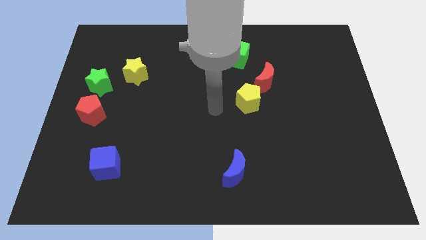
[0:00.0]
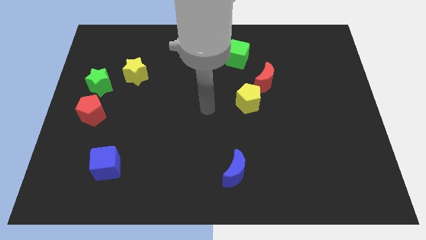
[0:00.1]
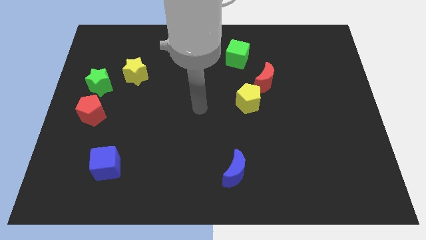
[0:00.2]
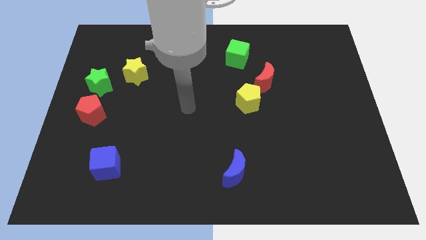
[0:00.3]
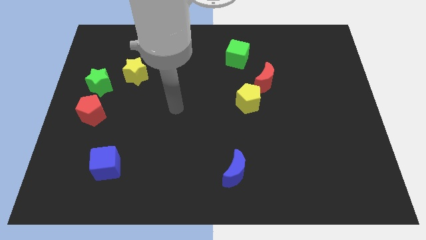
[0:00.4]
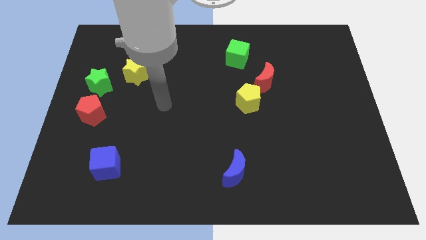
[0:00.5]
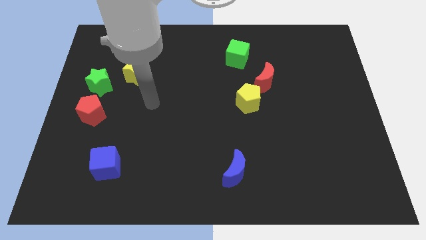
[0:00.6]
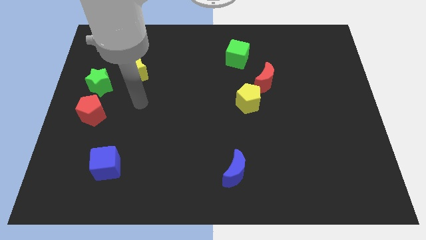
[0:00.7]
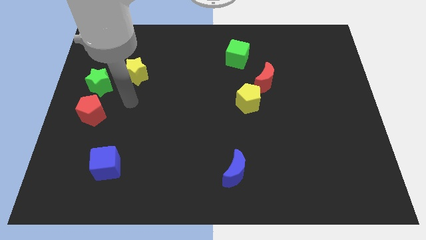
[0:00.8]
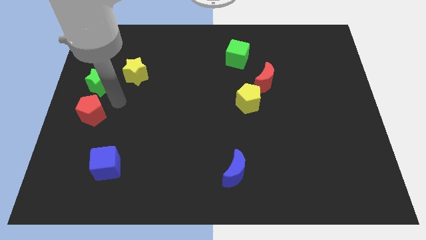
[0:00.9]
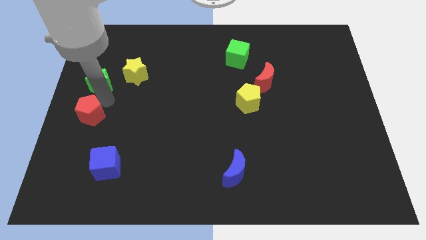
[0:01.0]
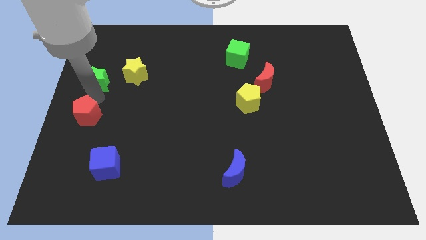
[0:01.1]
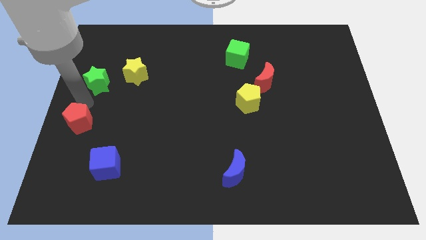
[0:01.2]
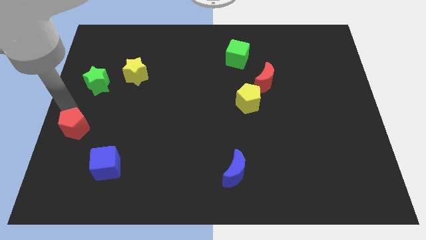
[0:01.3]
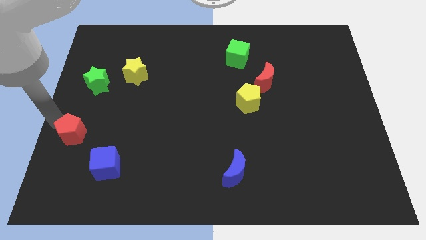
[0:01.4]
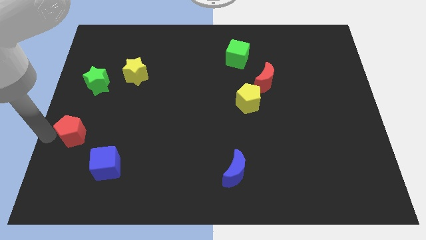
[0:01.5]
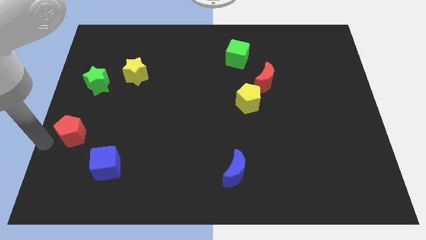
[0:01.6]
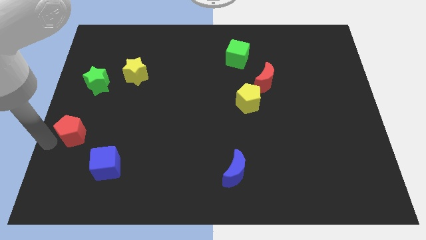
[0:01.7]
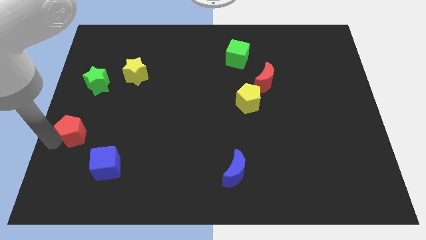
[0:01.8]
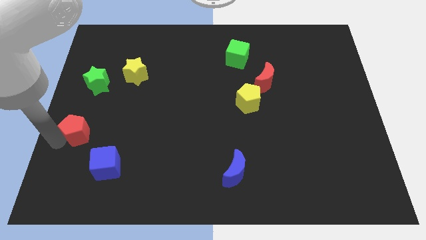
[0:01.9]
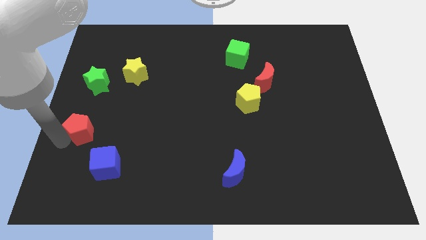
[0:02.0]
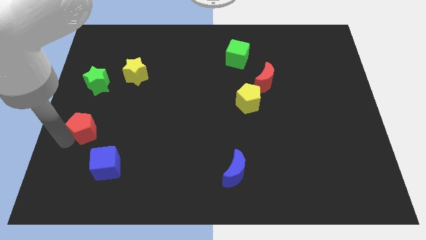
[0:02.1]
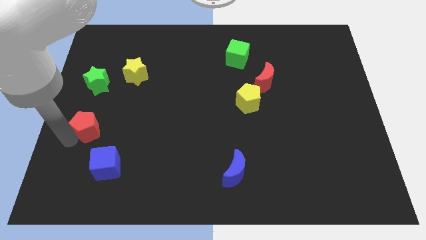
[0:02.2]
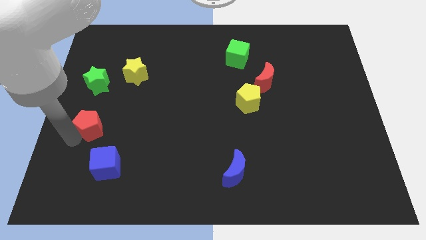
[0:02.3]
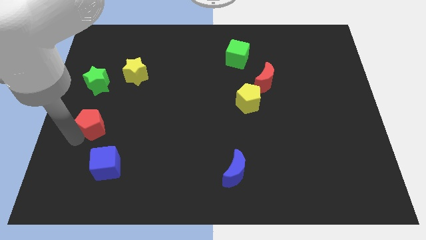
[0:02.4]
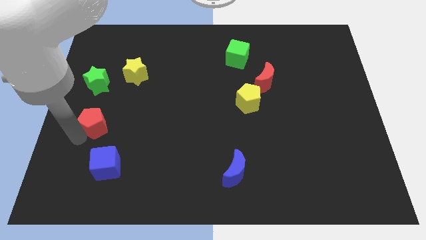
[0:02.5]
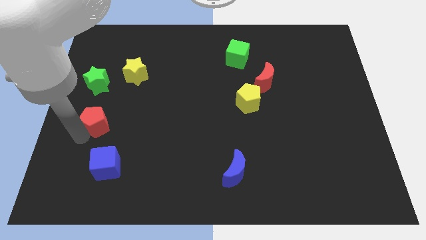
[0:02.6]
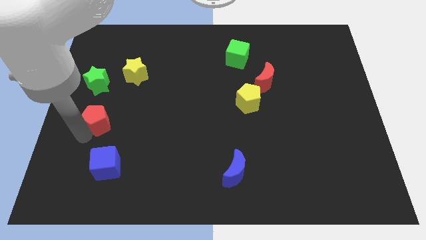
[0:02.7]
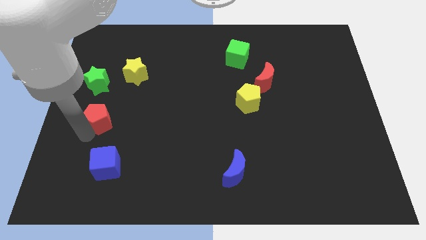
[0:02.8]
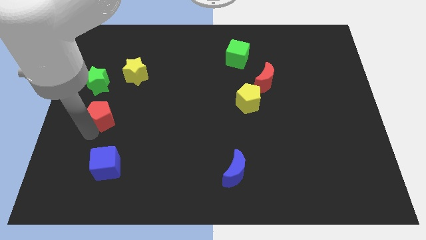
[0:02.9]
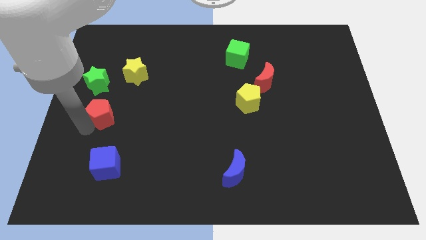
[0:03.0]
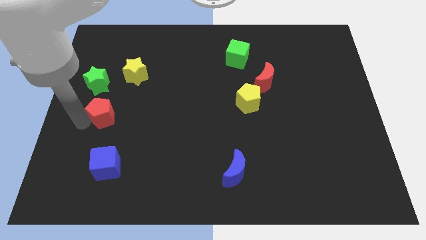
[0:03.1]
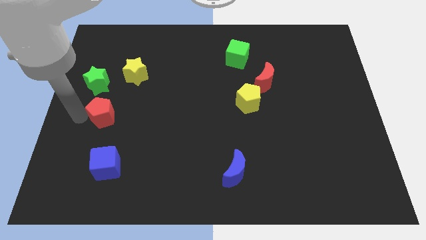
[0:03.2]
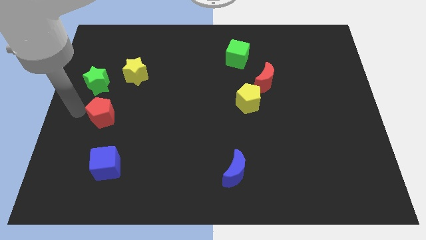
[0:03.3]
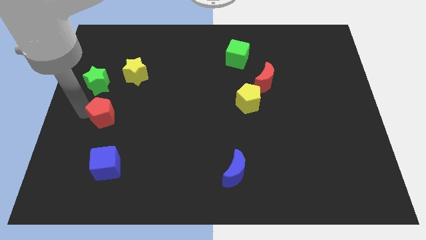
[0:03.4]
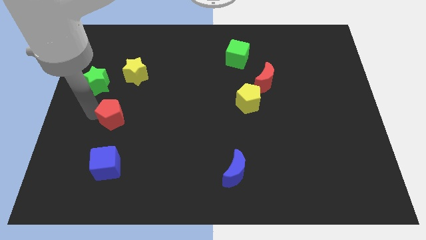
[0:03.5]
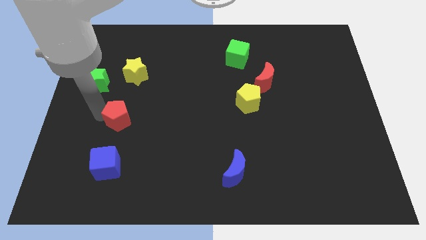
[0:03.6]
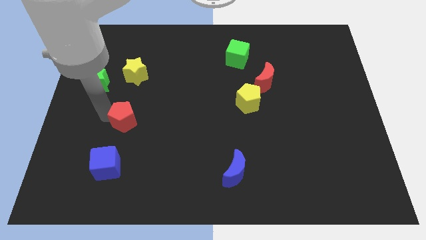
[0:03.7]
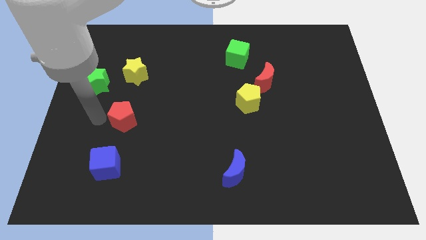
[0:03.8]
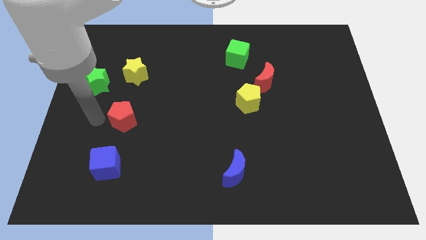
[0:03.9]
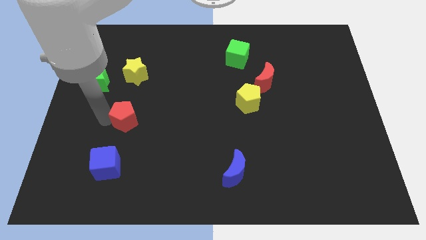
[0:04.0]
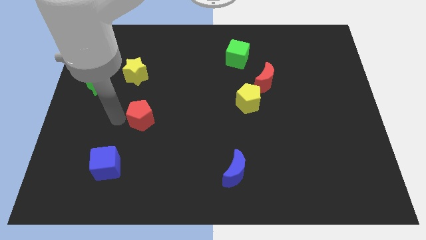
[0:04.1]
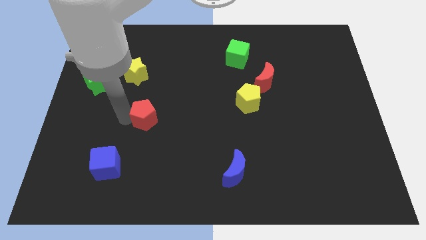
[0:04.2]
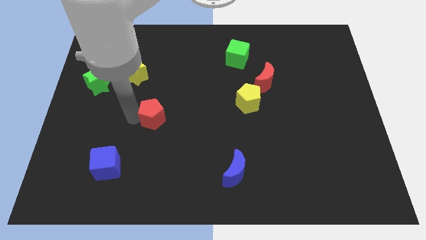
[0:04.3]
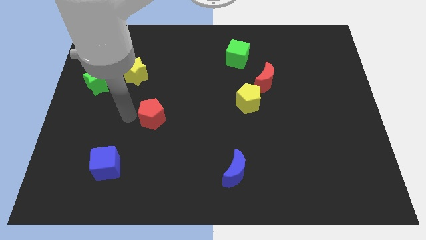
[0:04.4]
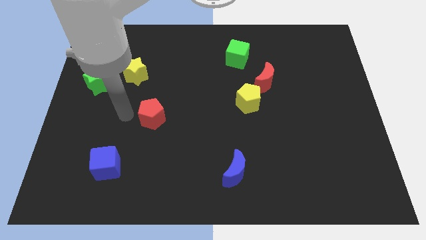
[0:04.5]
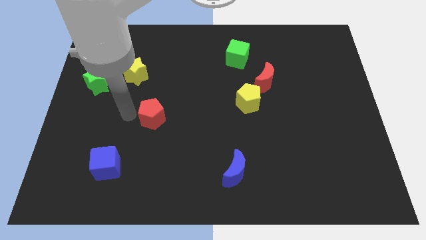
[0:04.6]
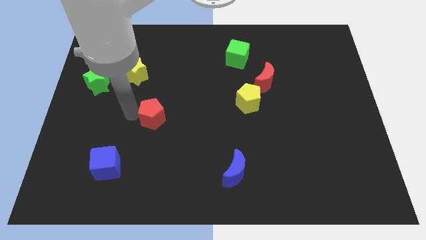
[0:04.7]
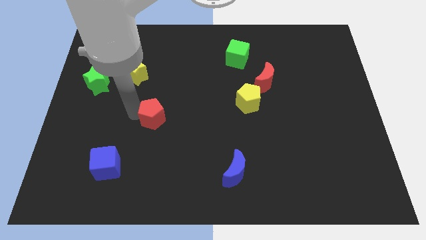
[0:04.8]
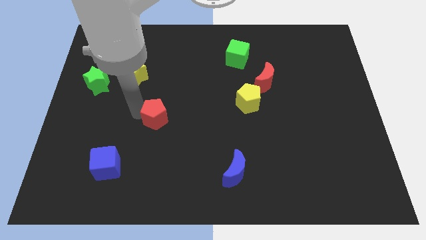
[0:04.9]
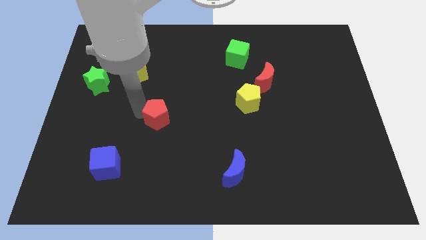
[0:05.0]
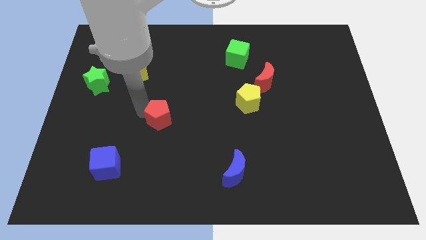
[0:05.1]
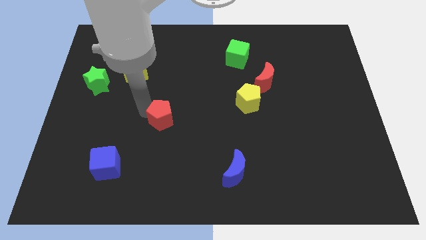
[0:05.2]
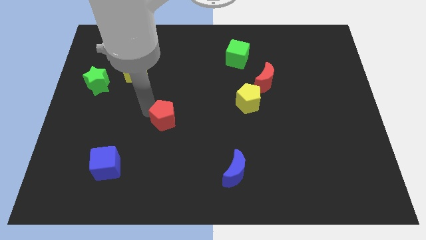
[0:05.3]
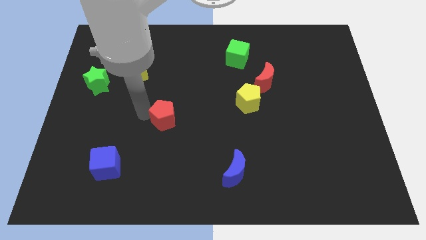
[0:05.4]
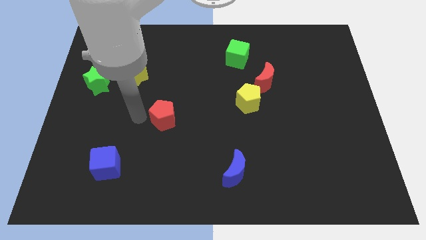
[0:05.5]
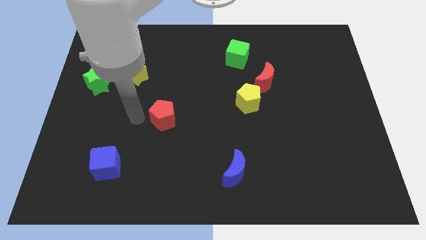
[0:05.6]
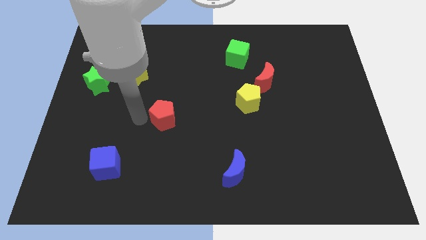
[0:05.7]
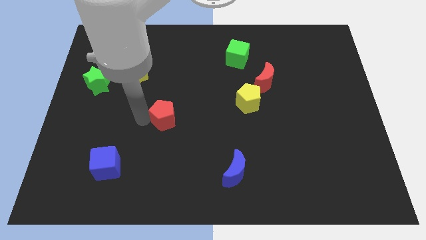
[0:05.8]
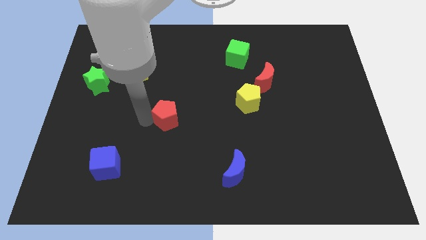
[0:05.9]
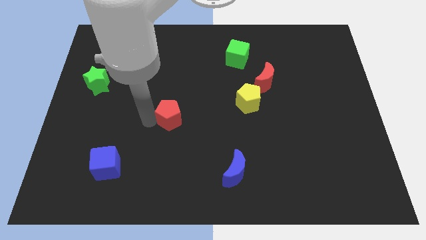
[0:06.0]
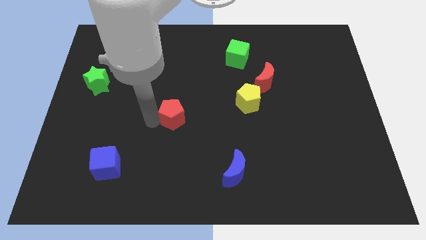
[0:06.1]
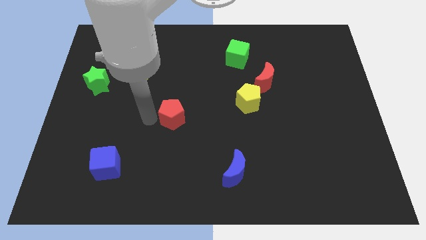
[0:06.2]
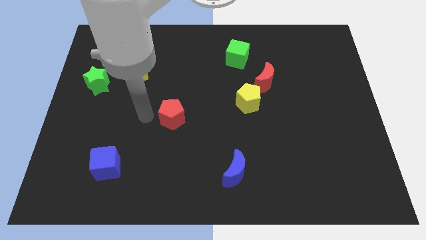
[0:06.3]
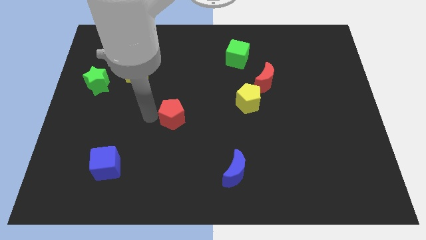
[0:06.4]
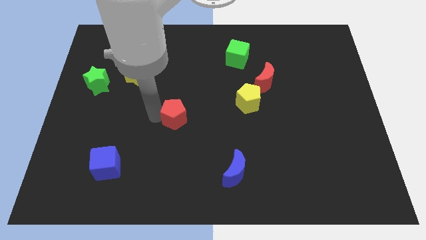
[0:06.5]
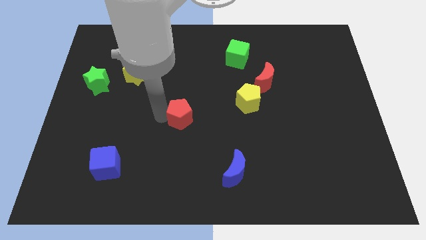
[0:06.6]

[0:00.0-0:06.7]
push the red pentagon right

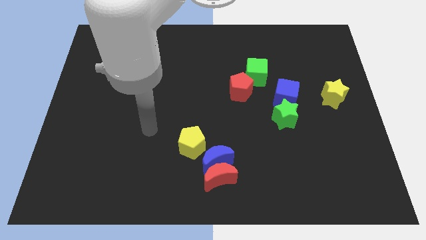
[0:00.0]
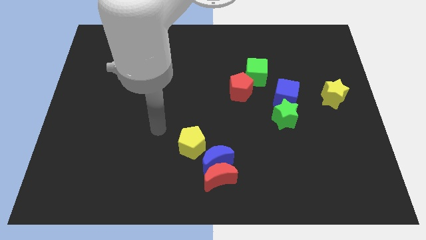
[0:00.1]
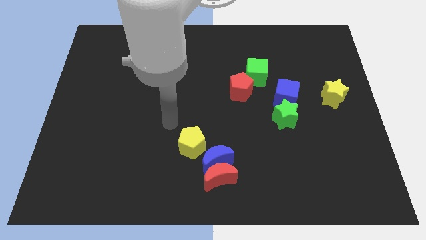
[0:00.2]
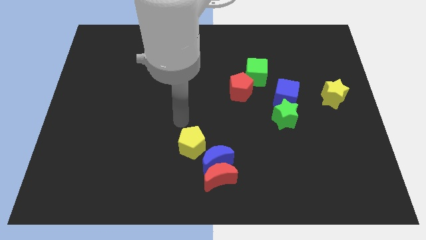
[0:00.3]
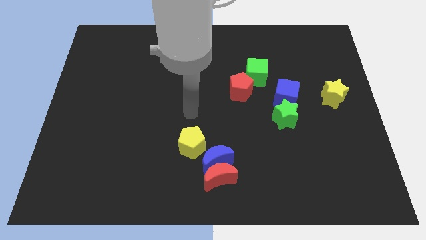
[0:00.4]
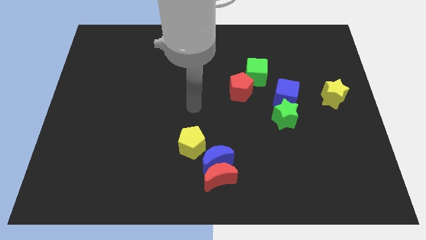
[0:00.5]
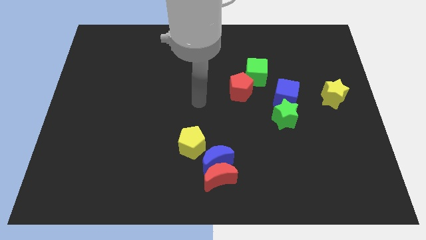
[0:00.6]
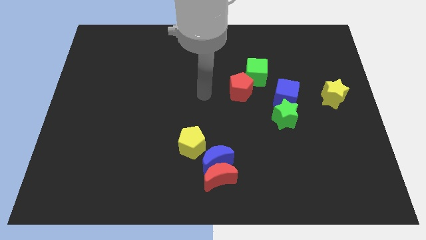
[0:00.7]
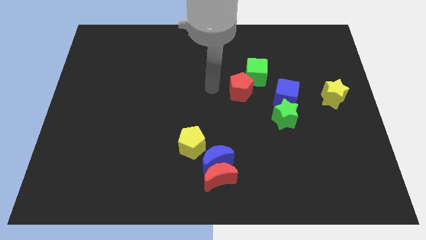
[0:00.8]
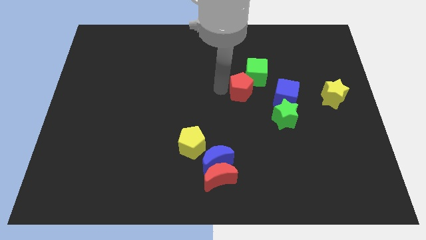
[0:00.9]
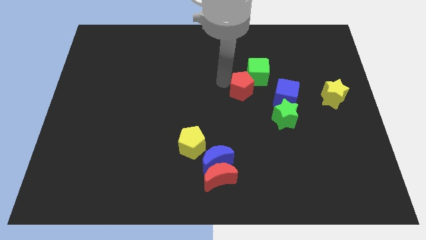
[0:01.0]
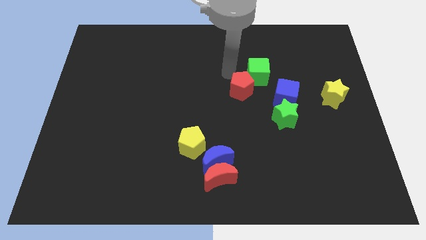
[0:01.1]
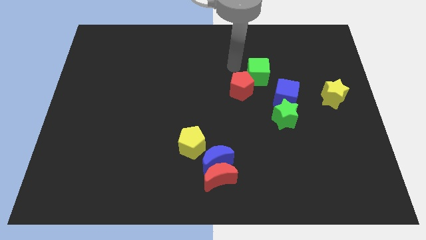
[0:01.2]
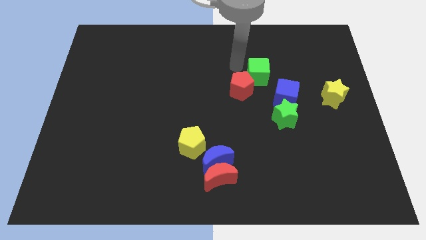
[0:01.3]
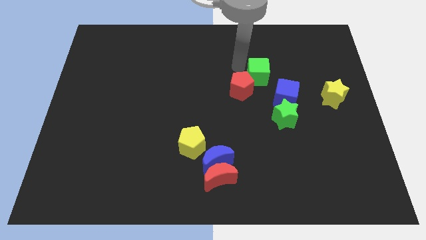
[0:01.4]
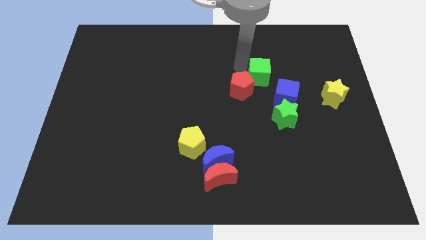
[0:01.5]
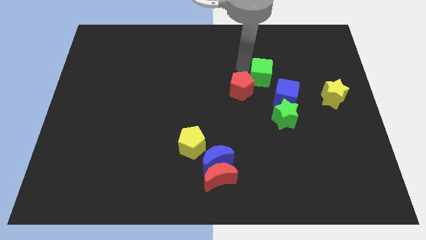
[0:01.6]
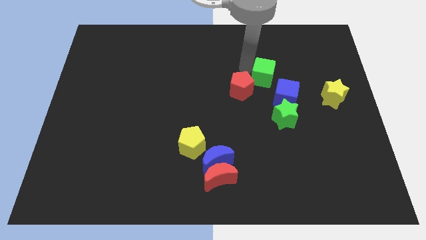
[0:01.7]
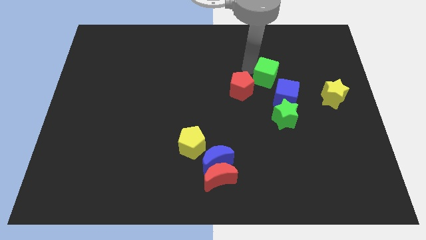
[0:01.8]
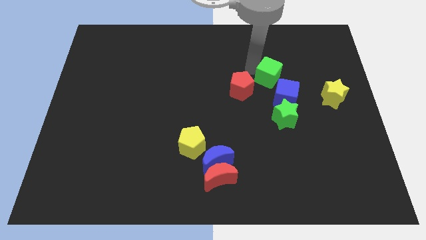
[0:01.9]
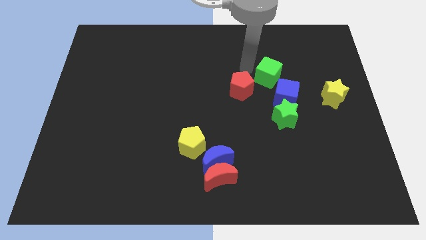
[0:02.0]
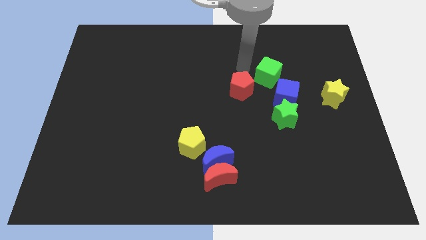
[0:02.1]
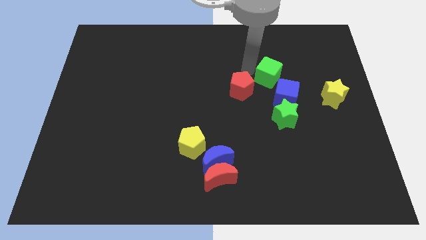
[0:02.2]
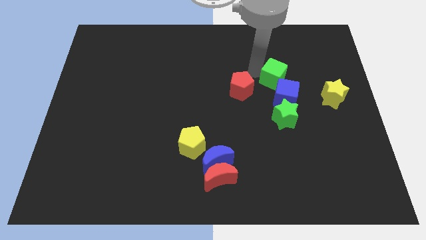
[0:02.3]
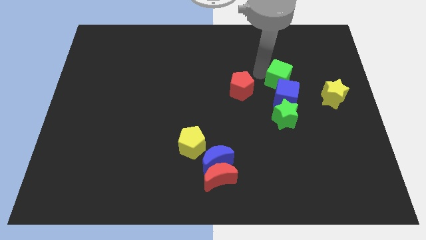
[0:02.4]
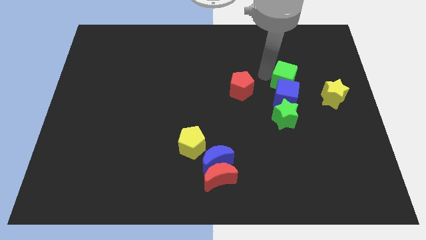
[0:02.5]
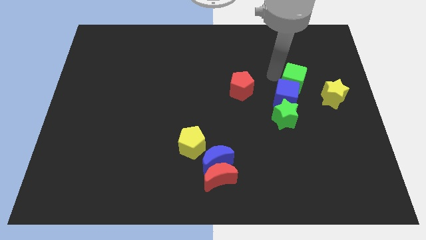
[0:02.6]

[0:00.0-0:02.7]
slightly slide the green cube downwards and right
